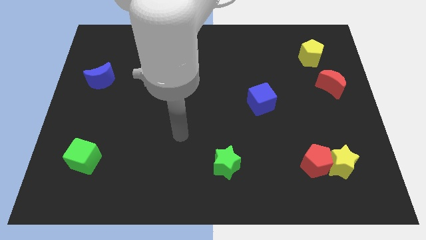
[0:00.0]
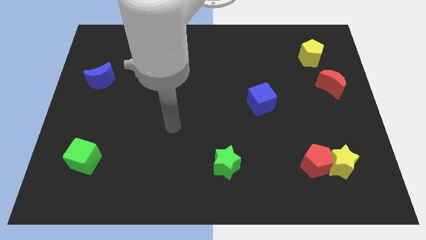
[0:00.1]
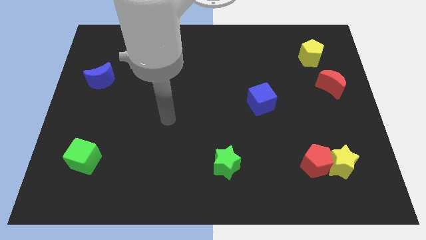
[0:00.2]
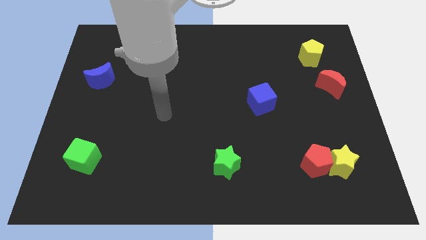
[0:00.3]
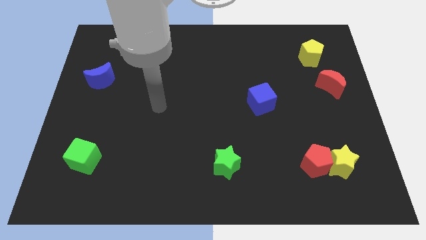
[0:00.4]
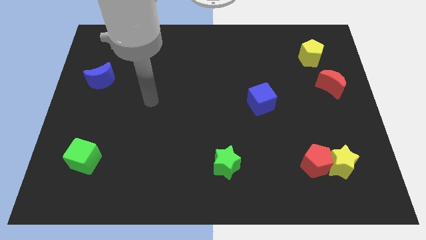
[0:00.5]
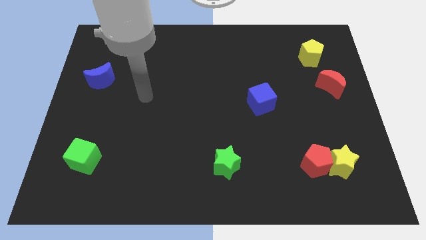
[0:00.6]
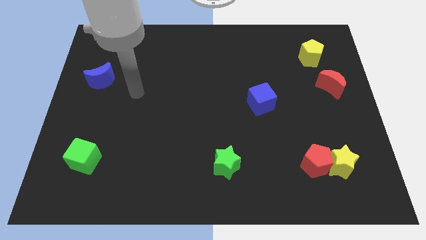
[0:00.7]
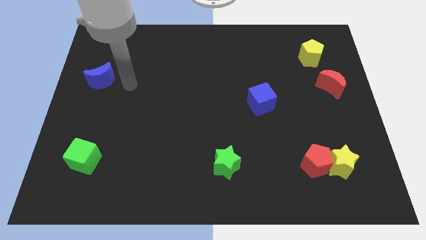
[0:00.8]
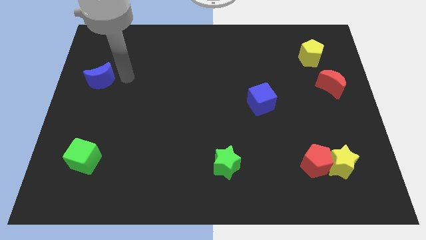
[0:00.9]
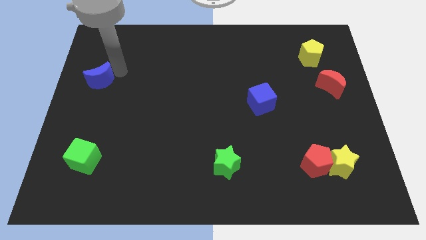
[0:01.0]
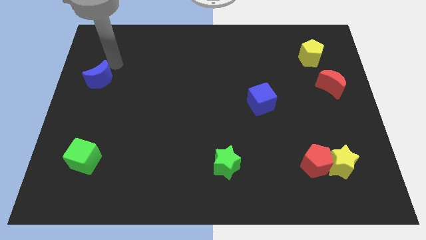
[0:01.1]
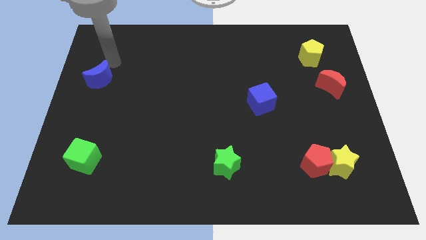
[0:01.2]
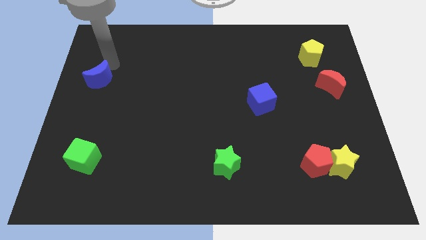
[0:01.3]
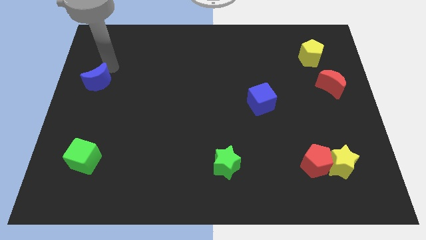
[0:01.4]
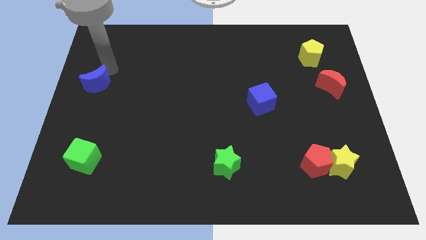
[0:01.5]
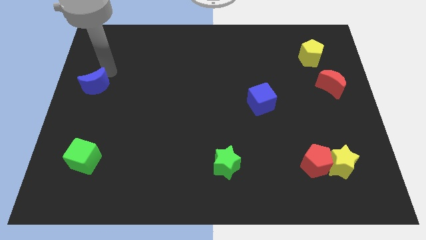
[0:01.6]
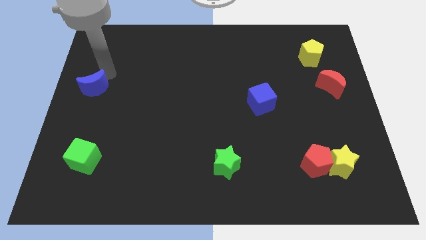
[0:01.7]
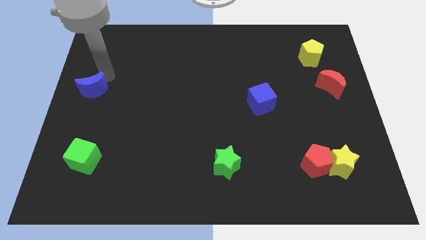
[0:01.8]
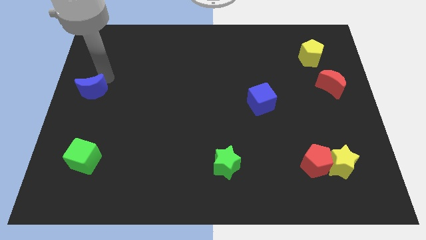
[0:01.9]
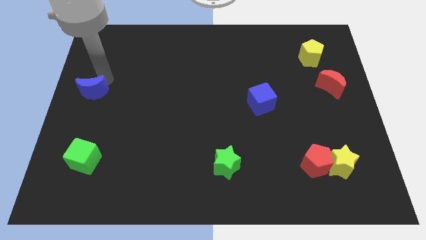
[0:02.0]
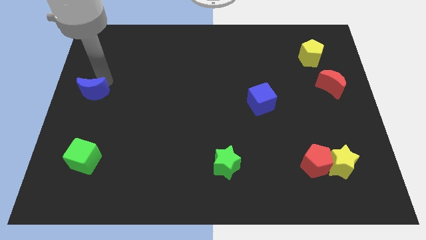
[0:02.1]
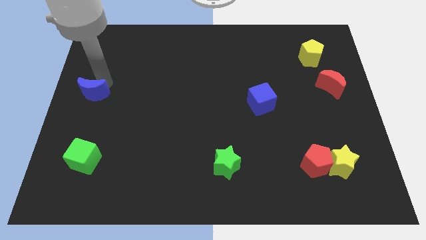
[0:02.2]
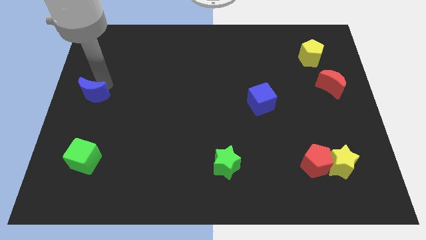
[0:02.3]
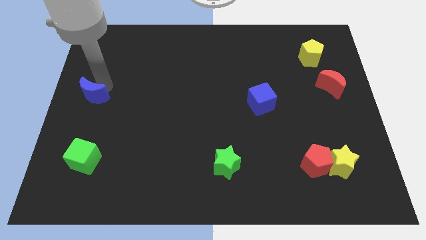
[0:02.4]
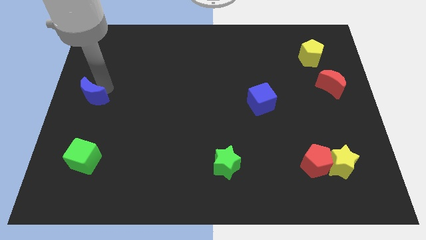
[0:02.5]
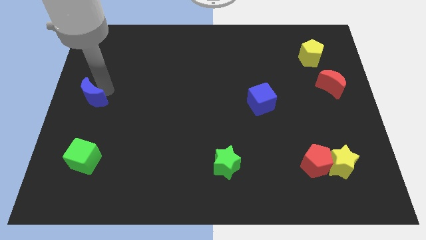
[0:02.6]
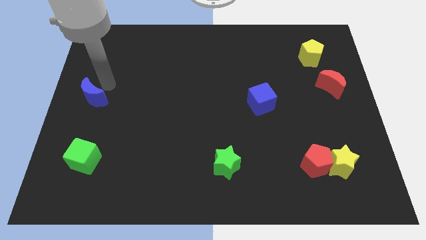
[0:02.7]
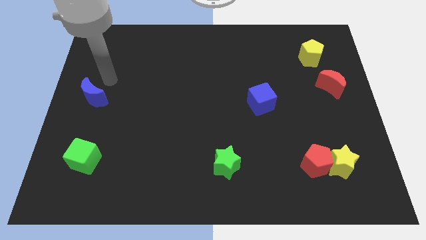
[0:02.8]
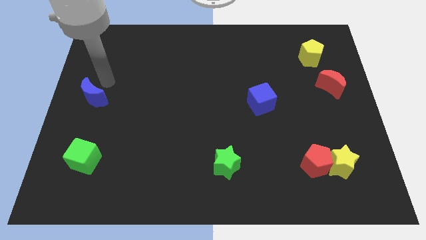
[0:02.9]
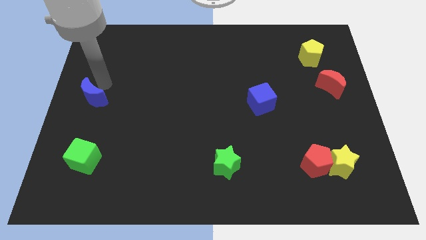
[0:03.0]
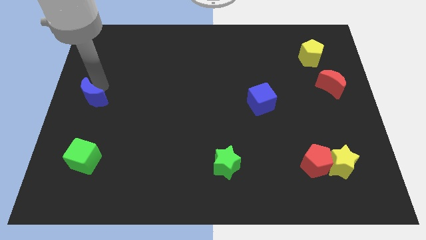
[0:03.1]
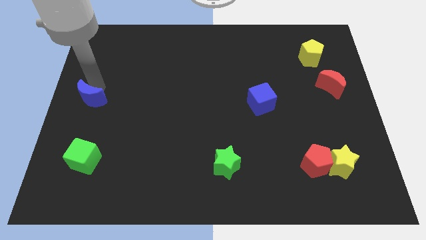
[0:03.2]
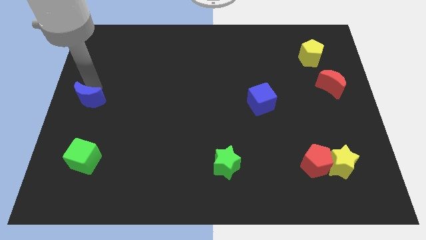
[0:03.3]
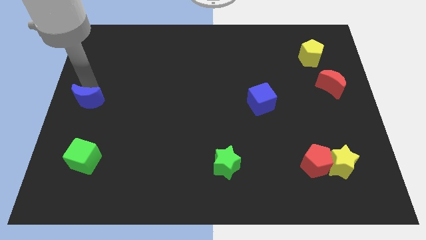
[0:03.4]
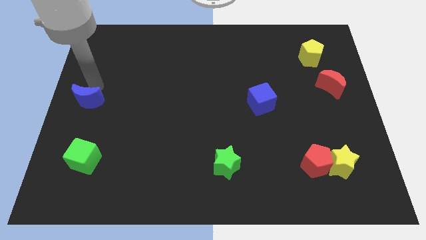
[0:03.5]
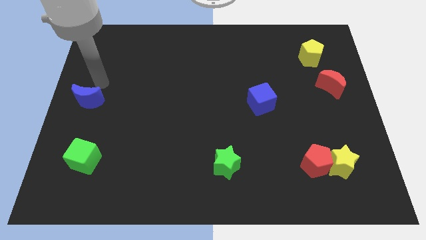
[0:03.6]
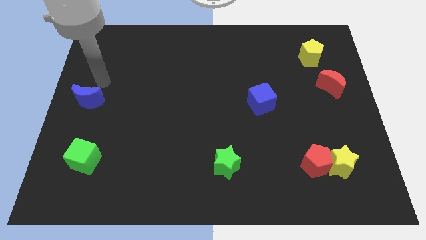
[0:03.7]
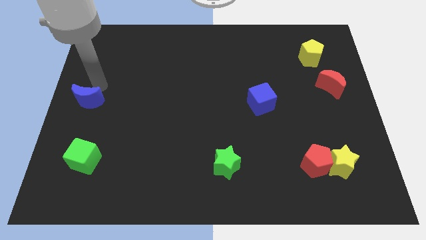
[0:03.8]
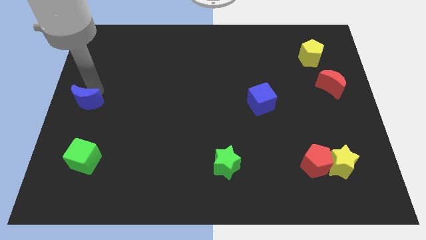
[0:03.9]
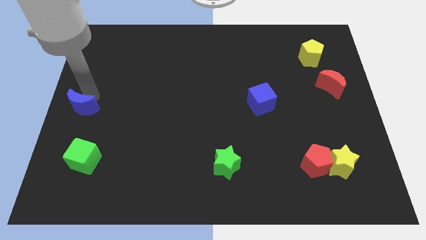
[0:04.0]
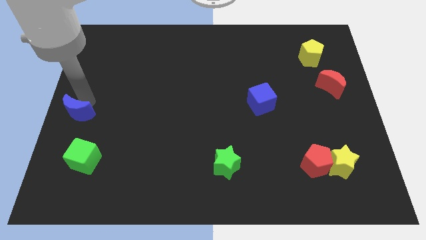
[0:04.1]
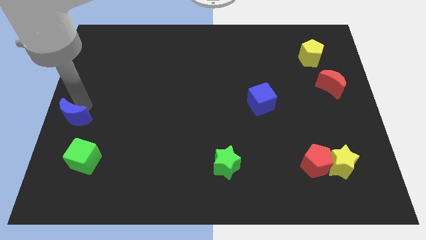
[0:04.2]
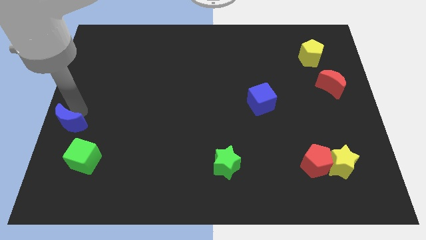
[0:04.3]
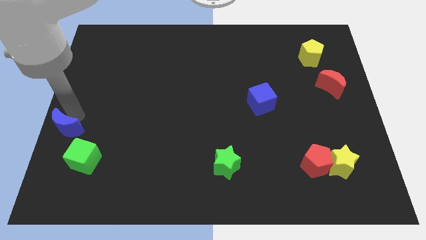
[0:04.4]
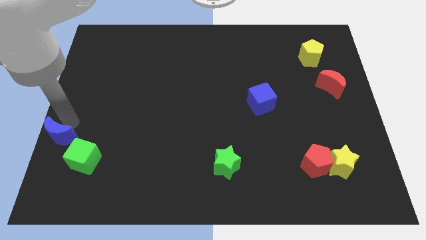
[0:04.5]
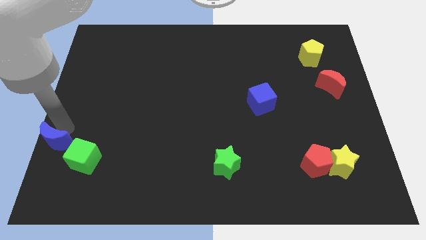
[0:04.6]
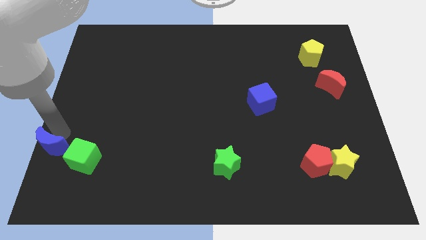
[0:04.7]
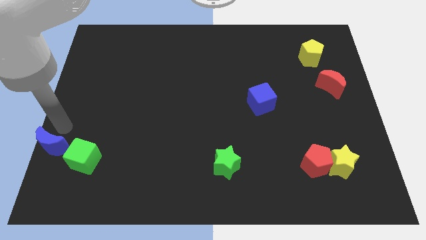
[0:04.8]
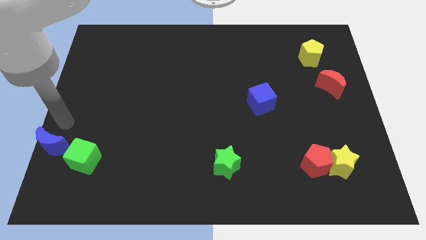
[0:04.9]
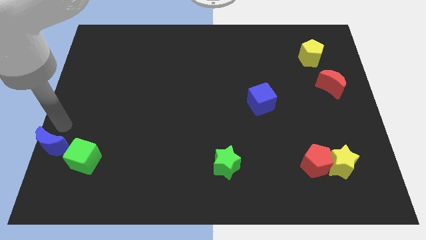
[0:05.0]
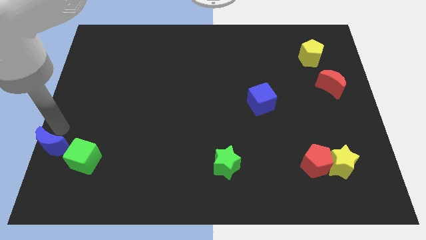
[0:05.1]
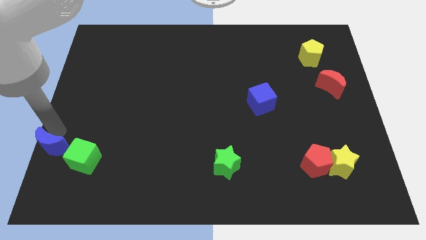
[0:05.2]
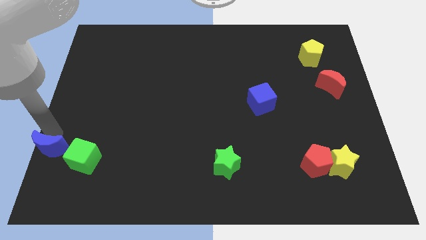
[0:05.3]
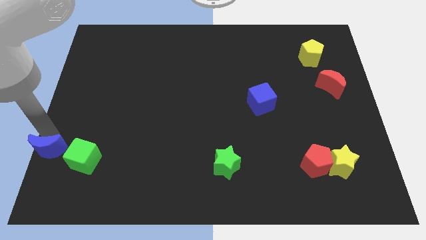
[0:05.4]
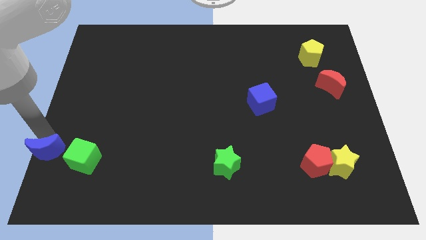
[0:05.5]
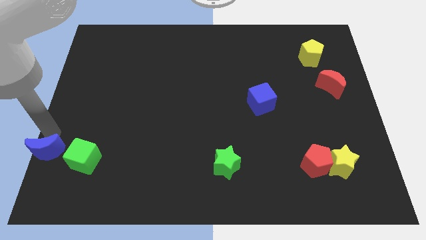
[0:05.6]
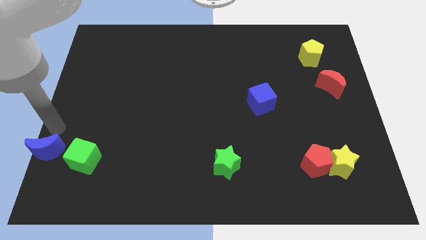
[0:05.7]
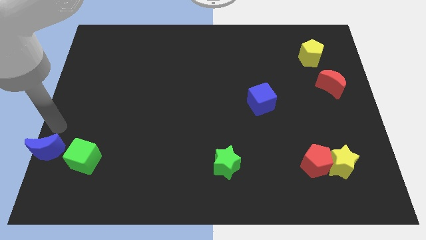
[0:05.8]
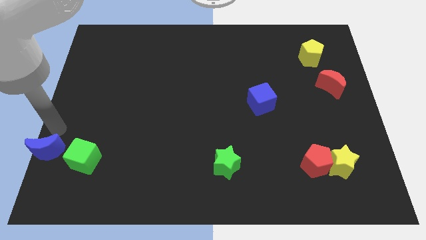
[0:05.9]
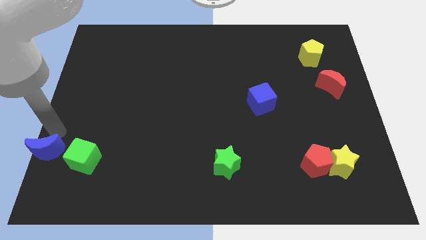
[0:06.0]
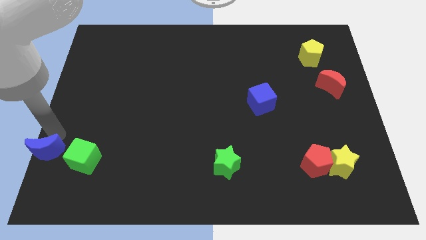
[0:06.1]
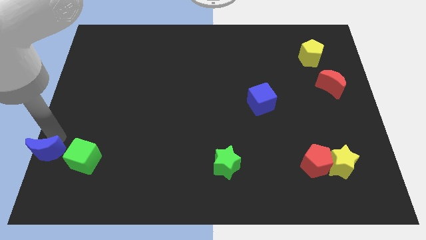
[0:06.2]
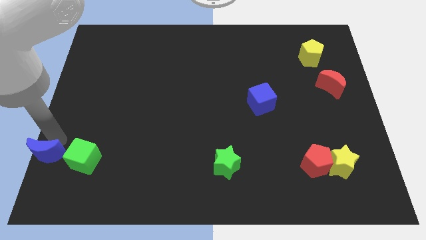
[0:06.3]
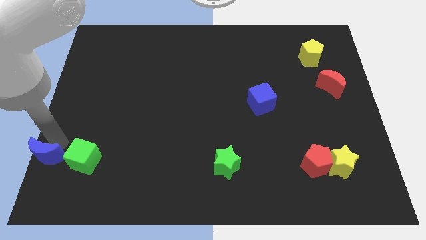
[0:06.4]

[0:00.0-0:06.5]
push the blue moon to the bottom left corner

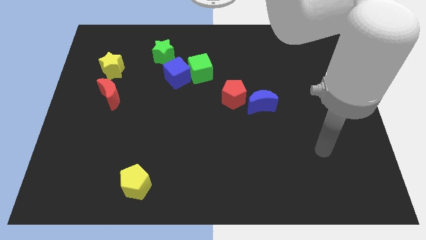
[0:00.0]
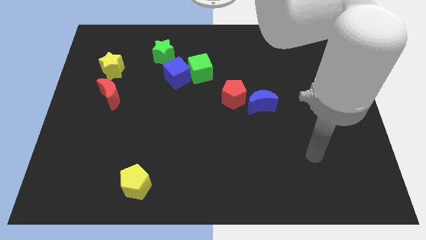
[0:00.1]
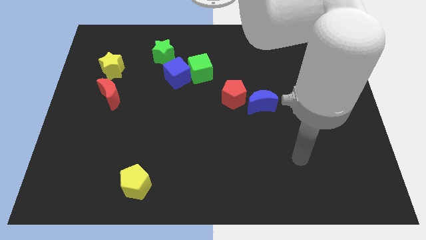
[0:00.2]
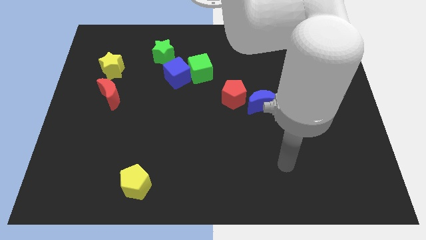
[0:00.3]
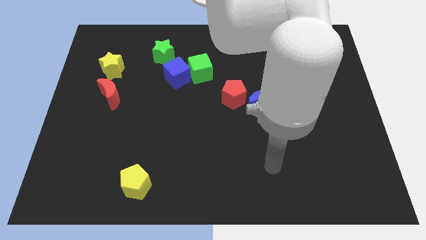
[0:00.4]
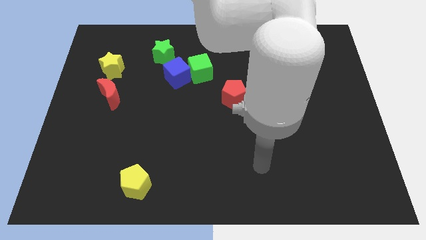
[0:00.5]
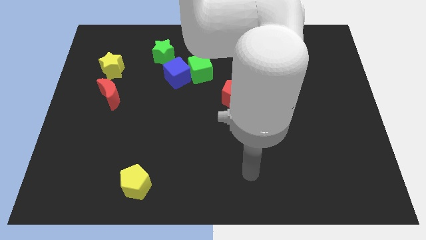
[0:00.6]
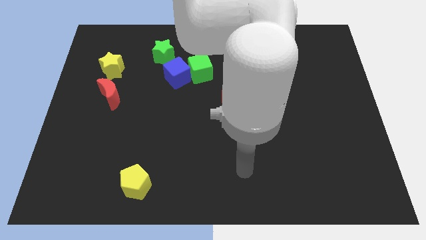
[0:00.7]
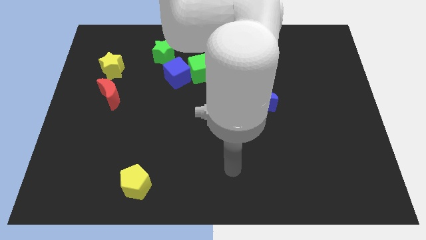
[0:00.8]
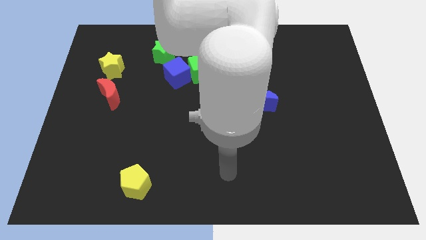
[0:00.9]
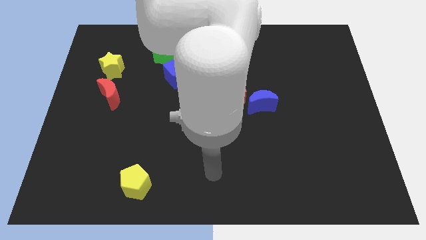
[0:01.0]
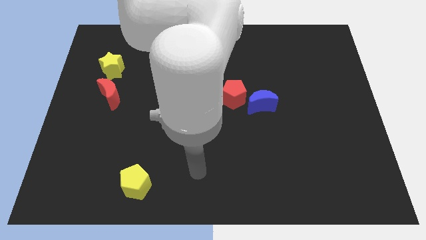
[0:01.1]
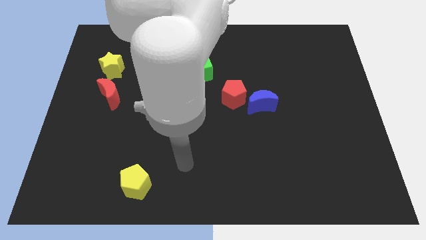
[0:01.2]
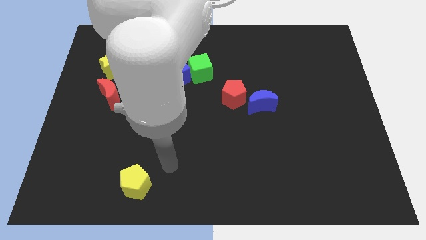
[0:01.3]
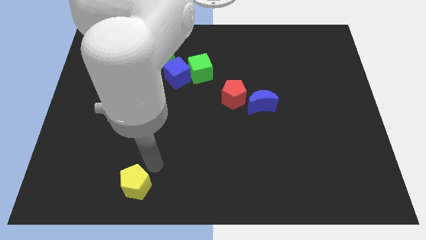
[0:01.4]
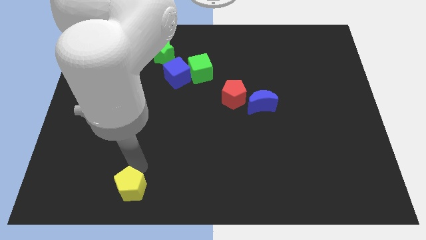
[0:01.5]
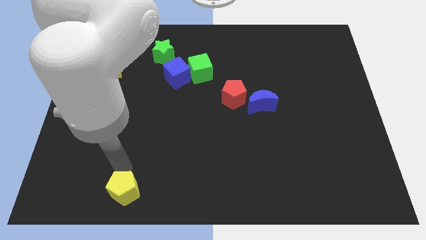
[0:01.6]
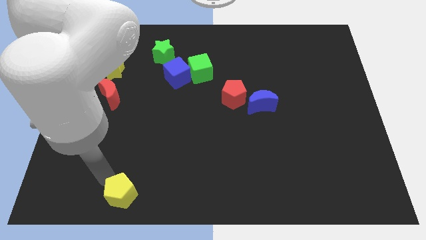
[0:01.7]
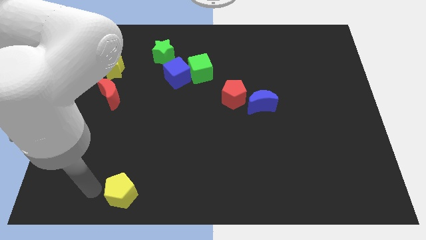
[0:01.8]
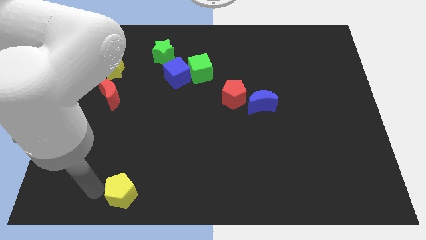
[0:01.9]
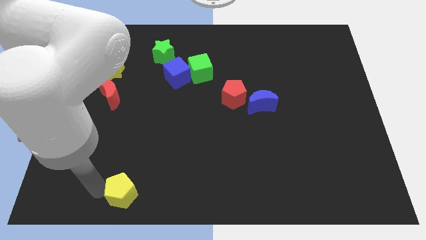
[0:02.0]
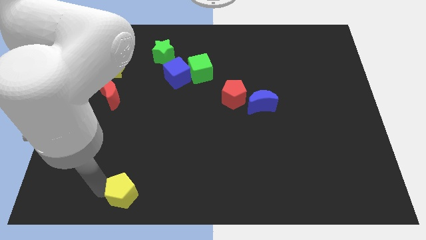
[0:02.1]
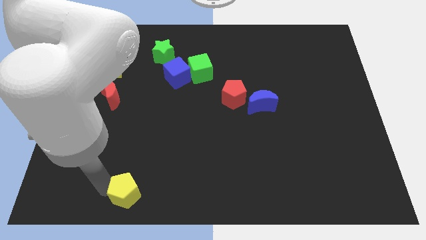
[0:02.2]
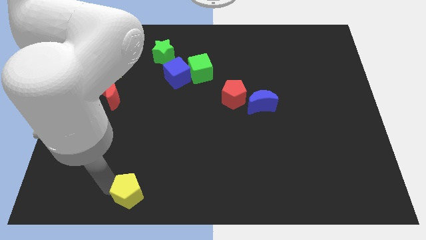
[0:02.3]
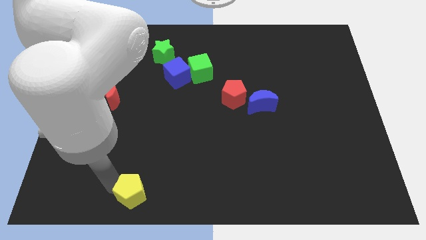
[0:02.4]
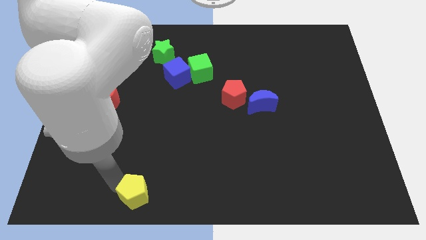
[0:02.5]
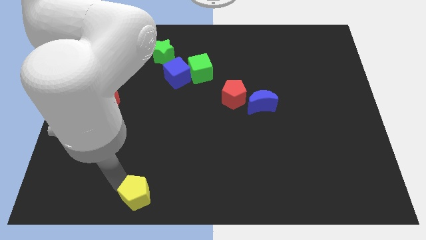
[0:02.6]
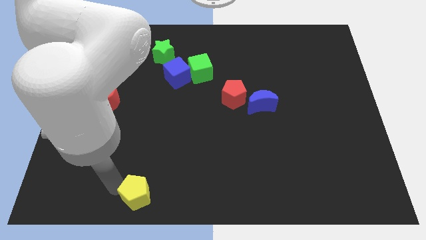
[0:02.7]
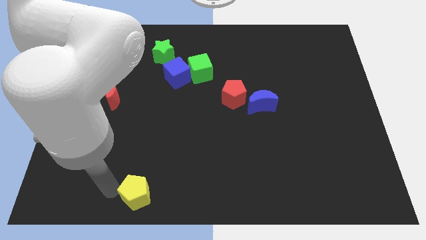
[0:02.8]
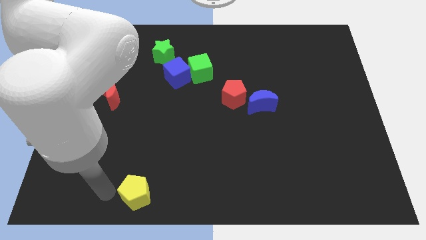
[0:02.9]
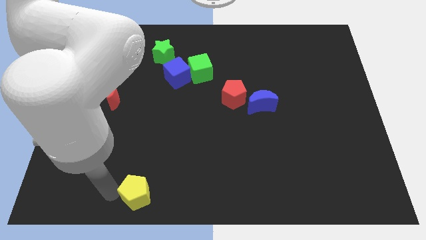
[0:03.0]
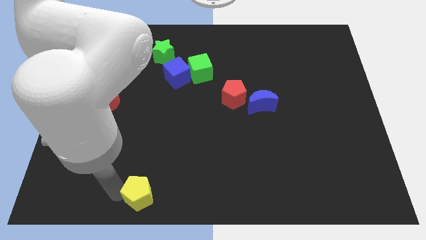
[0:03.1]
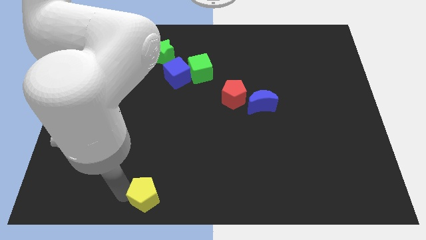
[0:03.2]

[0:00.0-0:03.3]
slide the yellow pentagon to the bottom side
